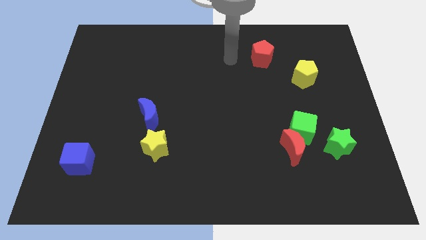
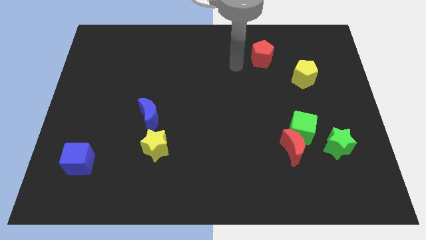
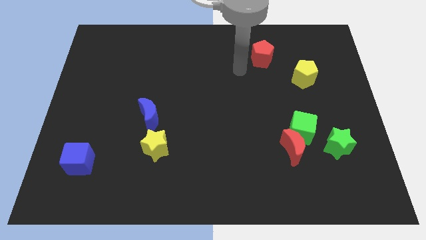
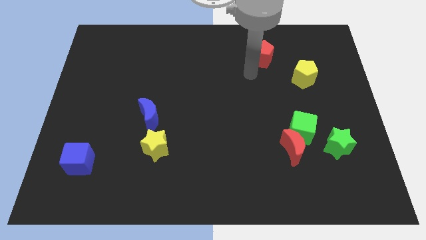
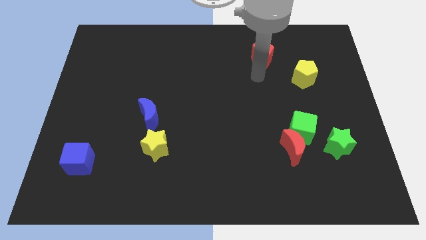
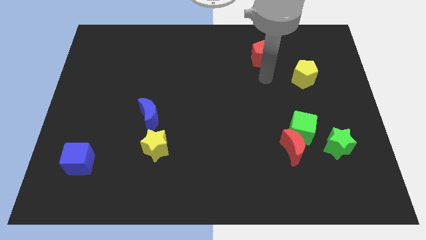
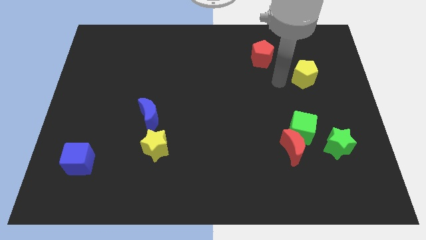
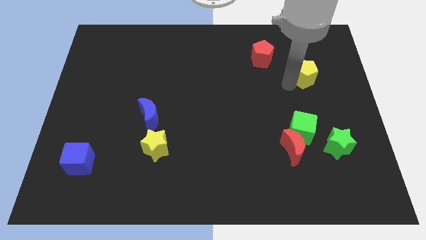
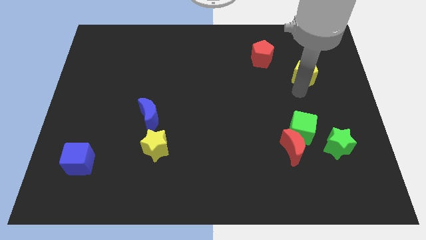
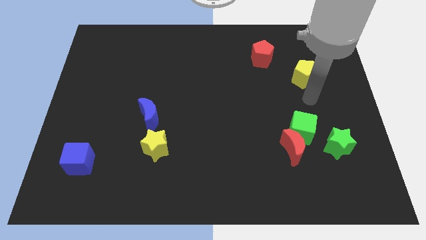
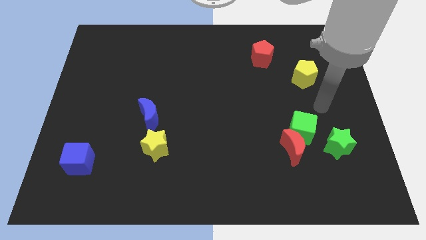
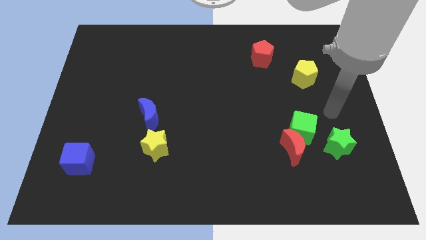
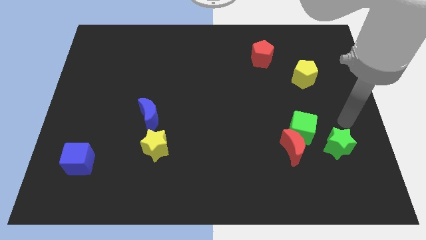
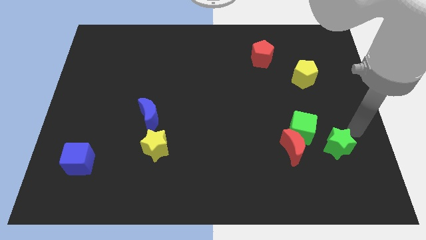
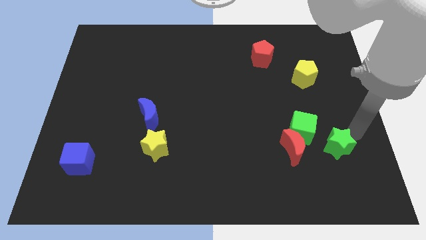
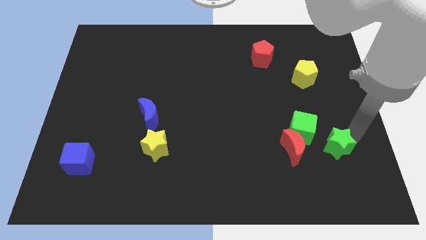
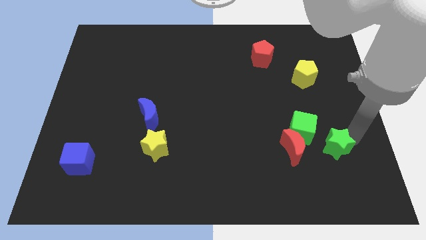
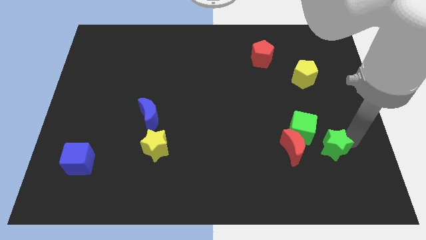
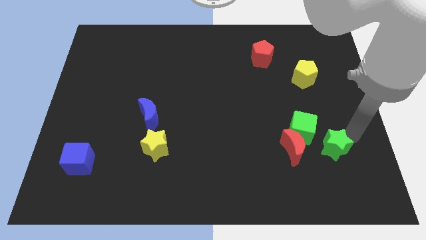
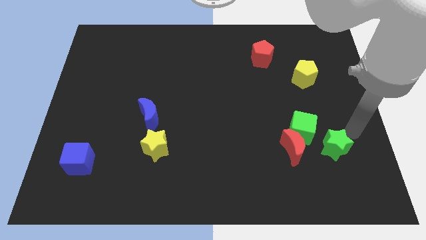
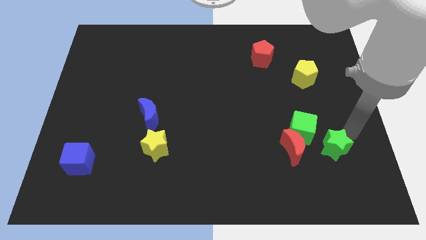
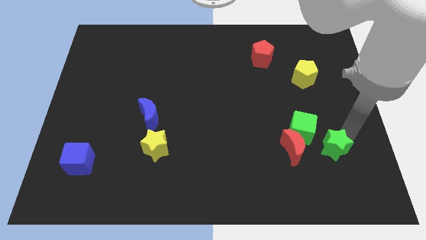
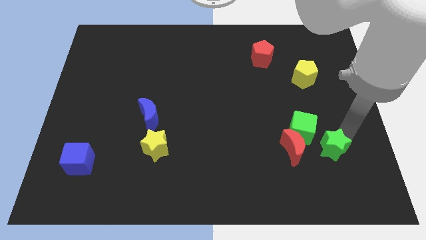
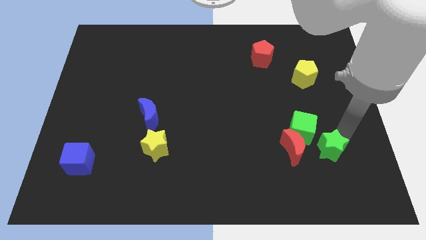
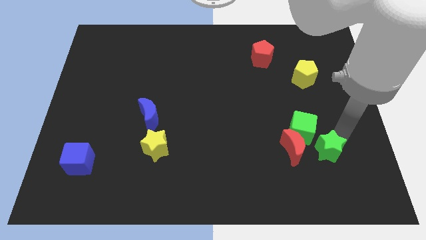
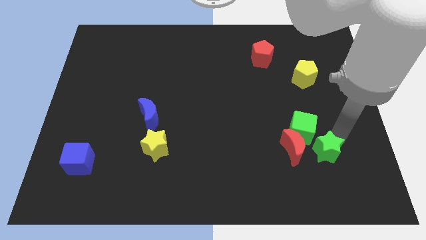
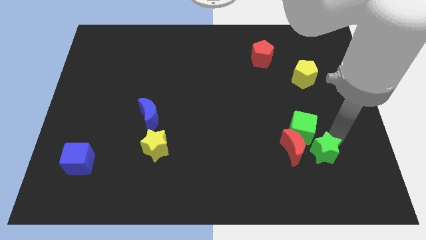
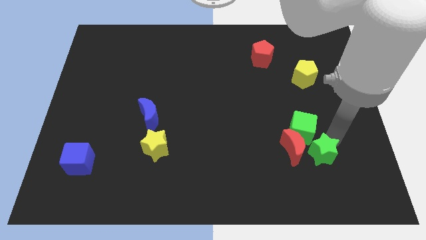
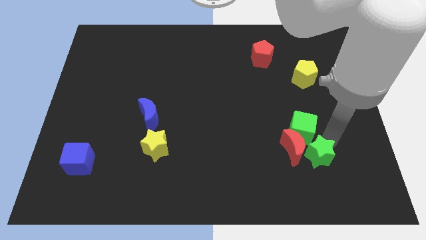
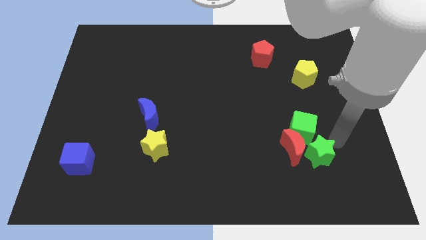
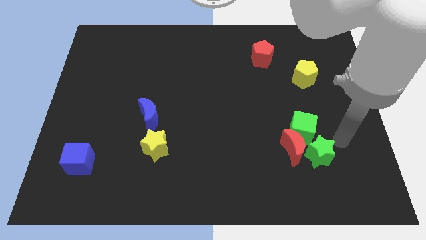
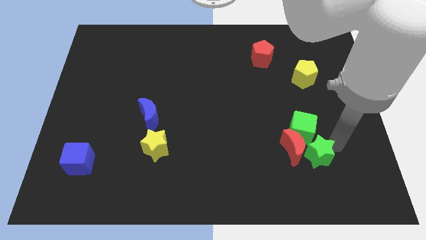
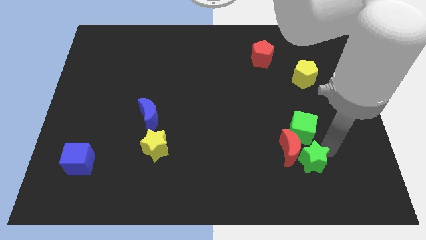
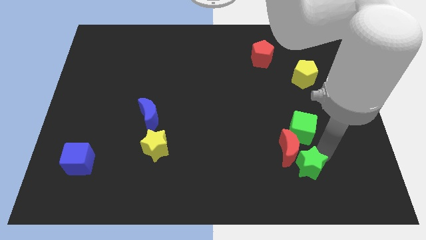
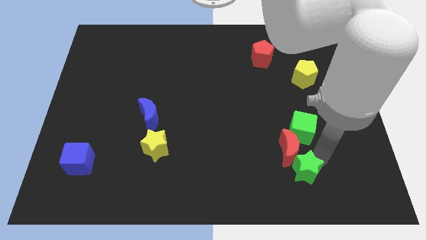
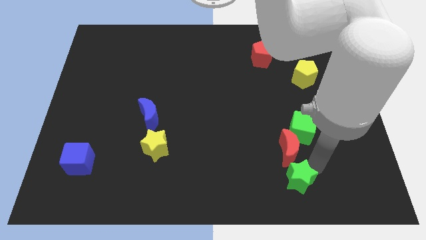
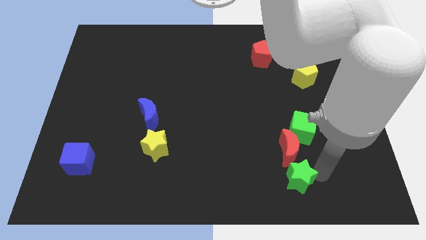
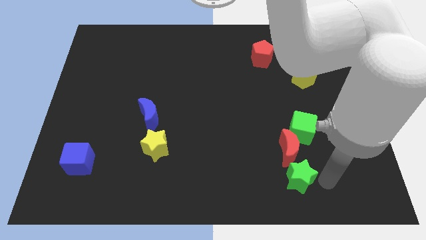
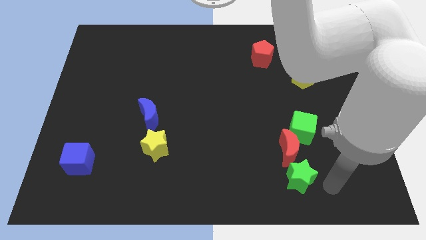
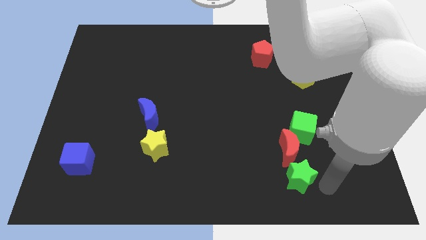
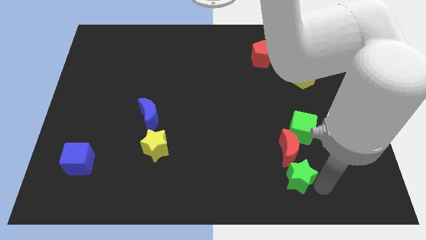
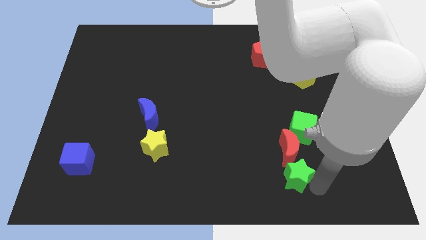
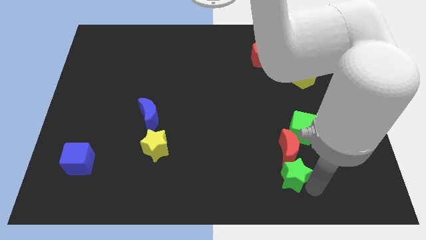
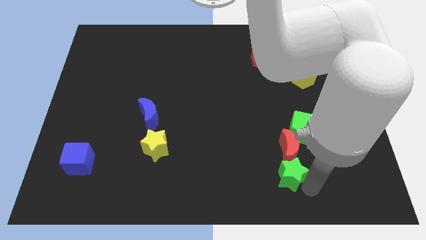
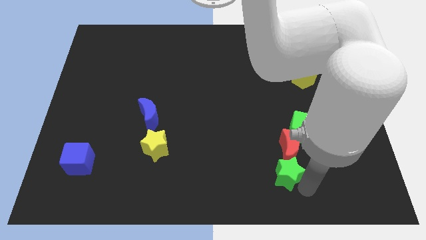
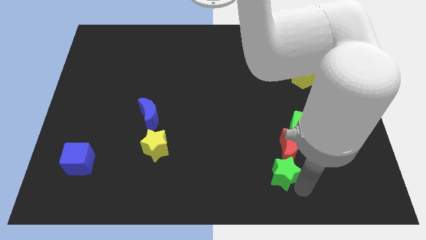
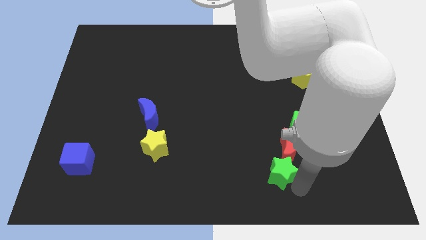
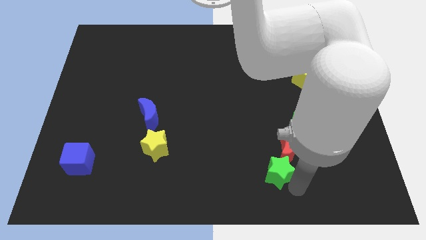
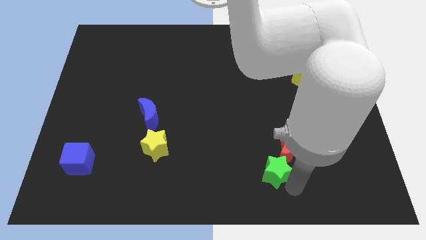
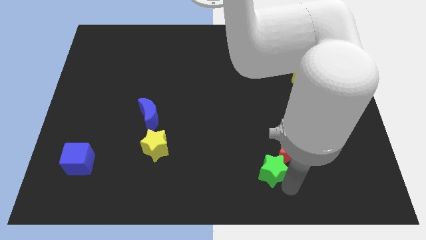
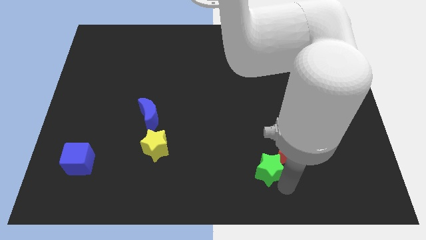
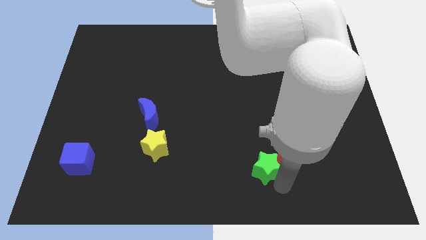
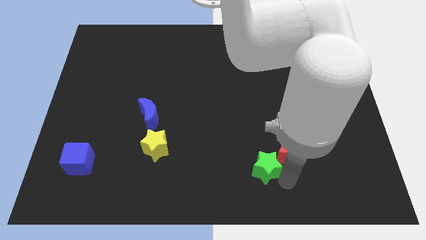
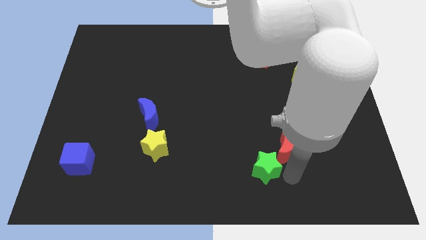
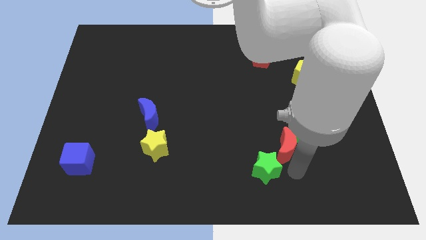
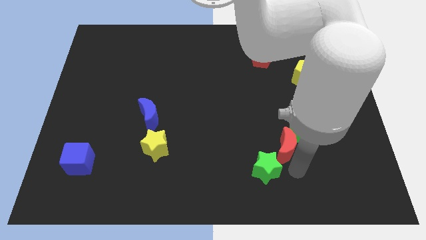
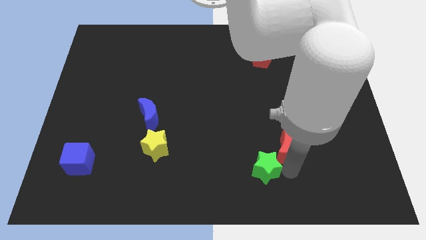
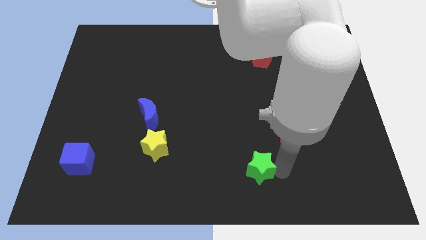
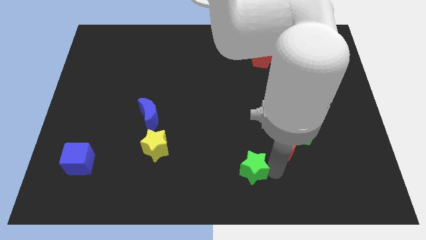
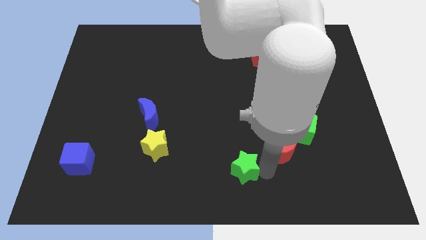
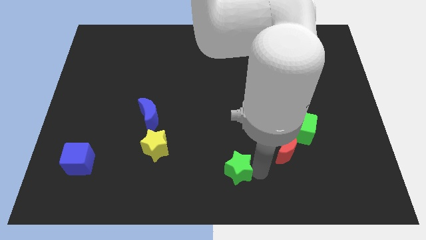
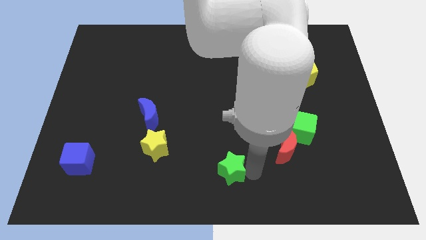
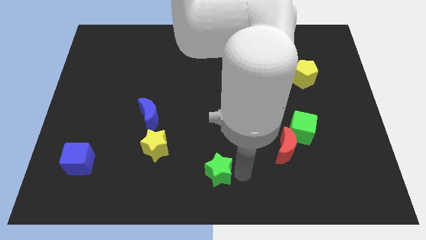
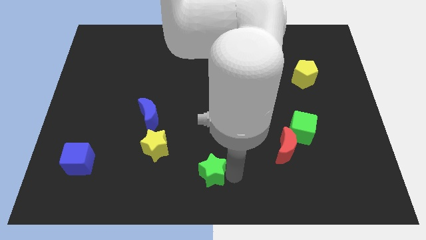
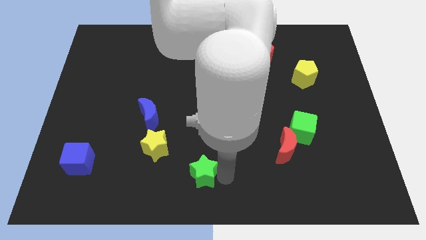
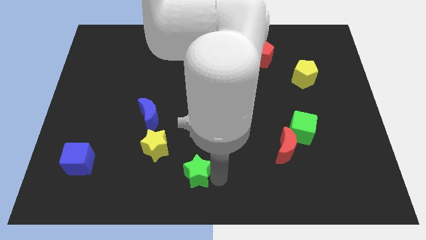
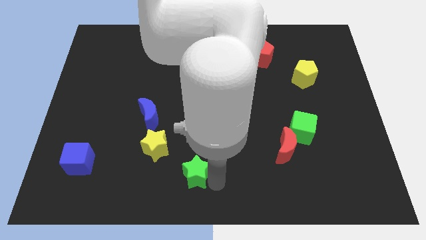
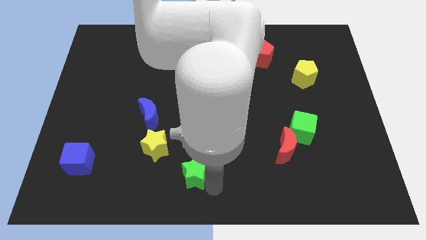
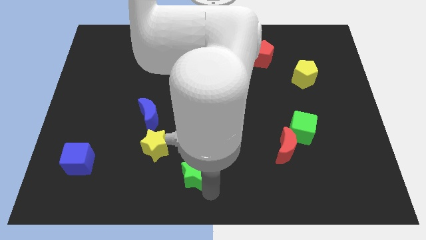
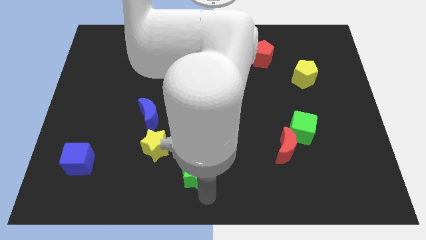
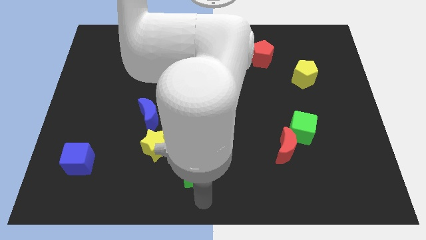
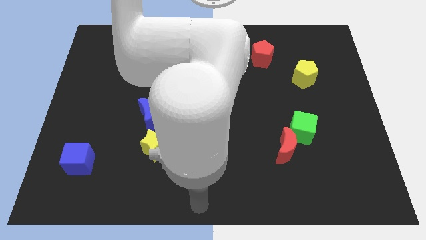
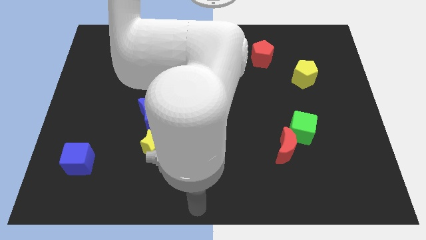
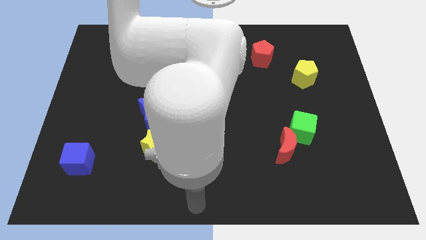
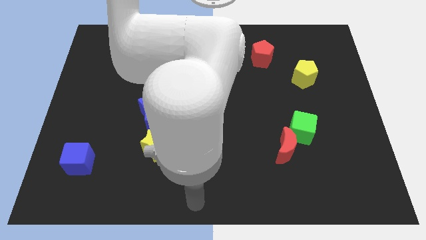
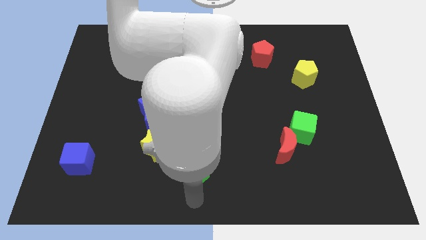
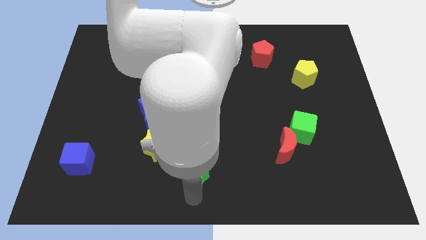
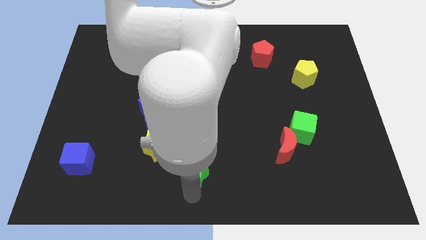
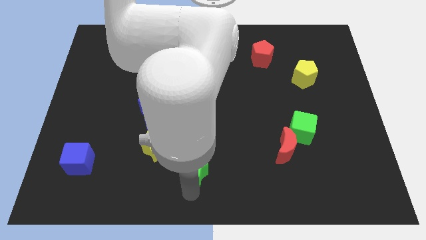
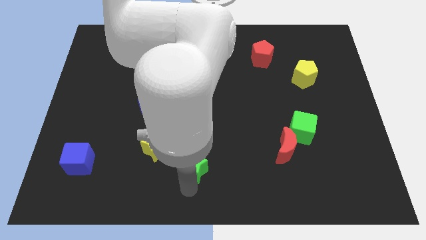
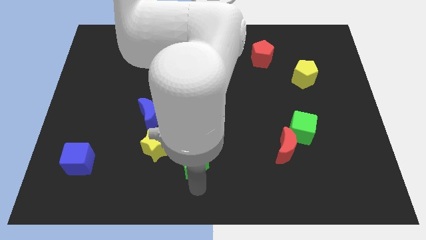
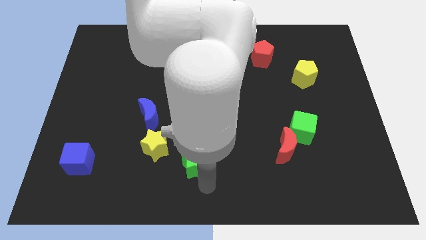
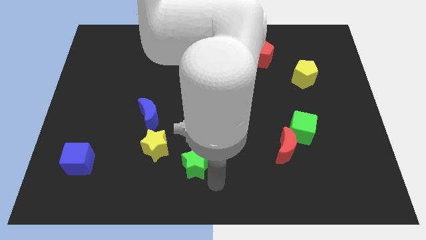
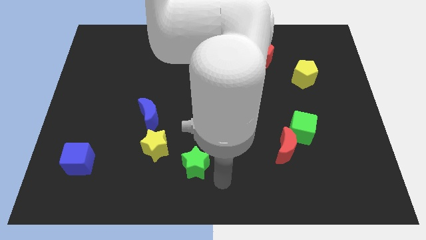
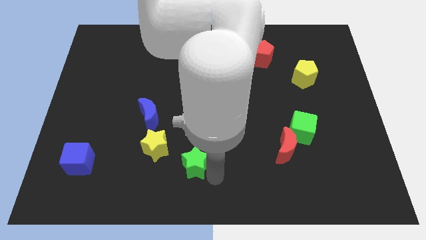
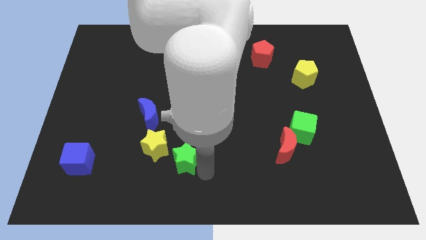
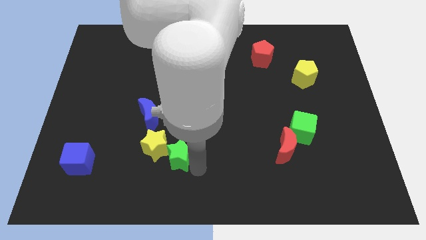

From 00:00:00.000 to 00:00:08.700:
push the green star next to the yellow star
